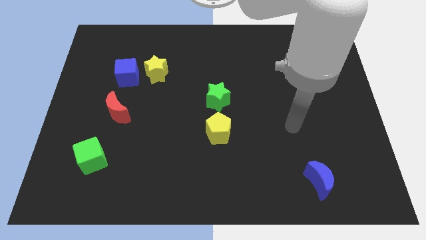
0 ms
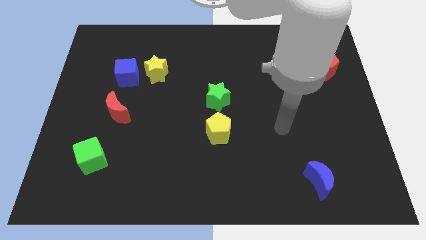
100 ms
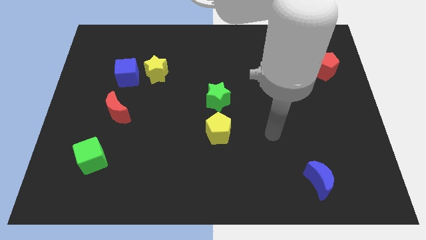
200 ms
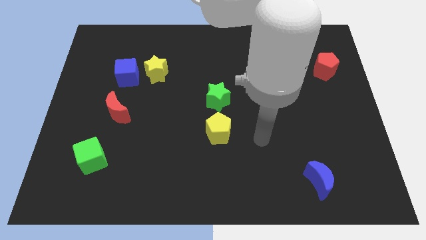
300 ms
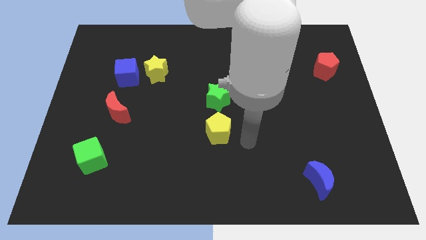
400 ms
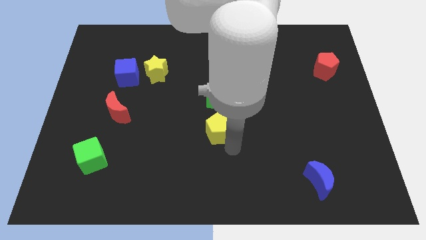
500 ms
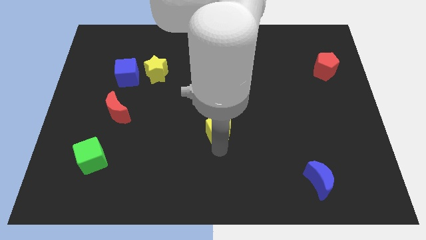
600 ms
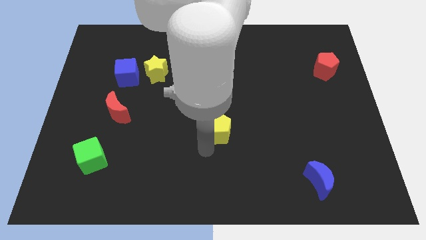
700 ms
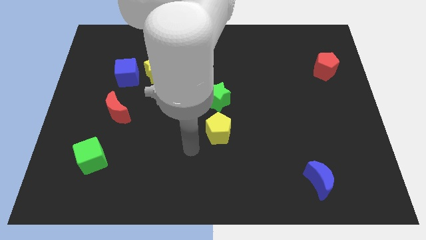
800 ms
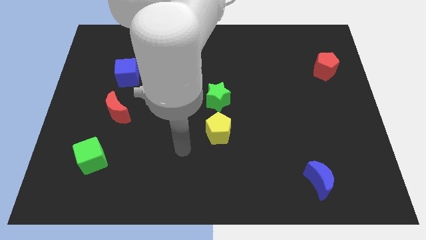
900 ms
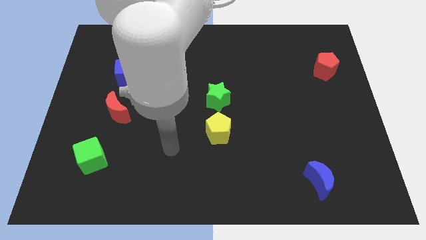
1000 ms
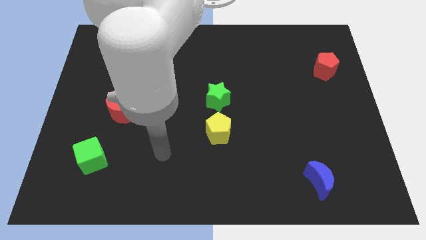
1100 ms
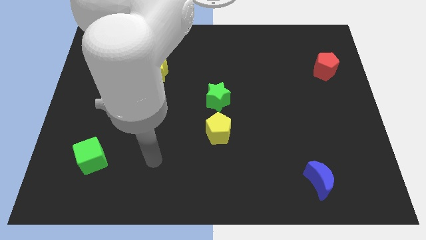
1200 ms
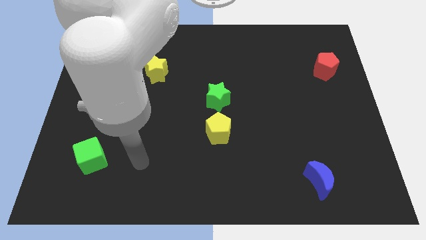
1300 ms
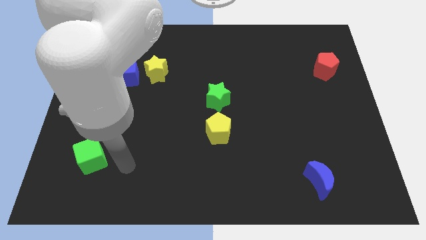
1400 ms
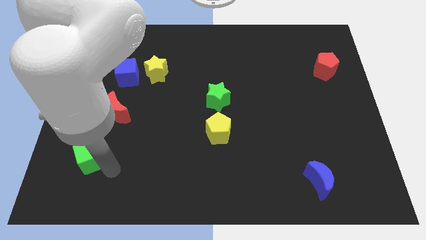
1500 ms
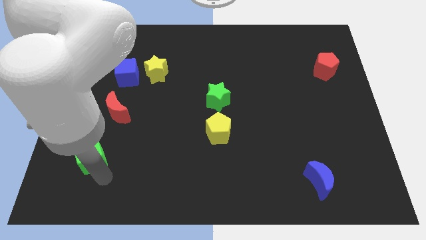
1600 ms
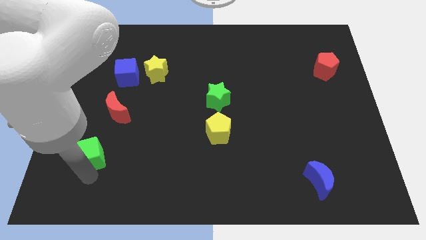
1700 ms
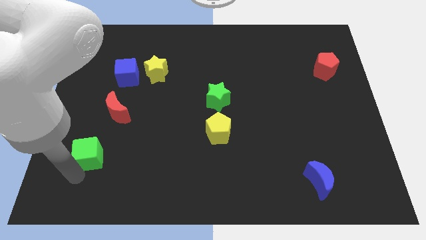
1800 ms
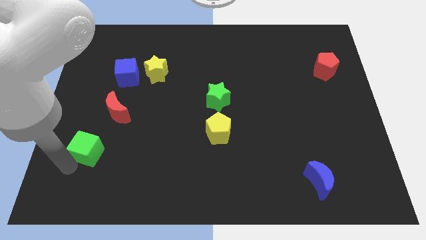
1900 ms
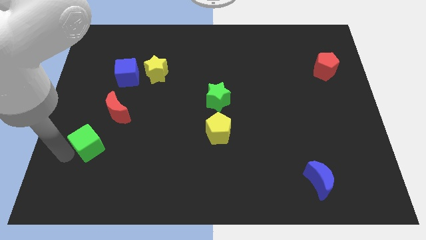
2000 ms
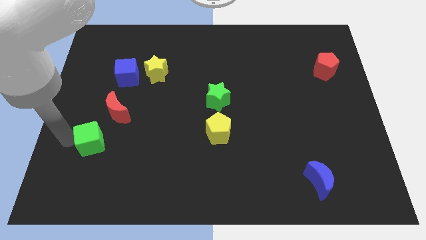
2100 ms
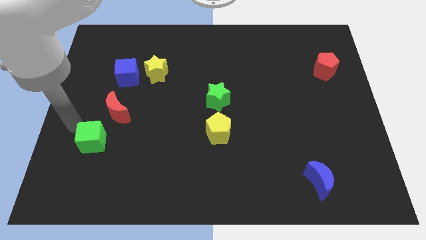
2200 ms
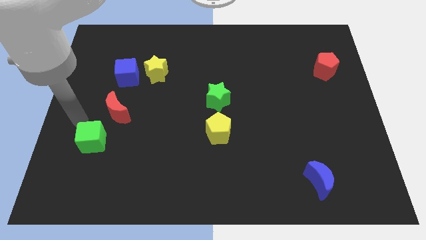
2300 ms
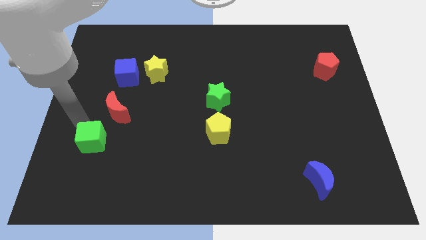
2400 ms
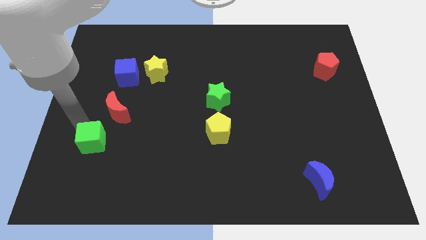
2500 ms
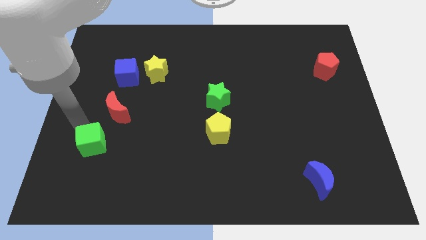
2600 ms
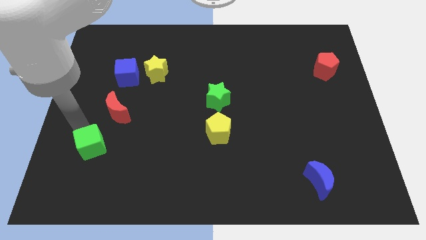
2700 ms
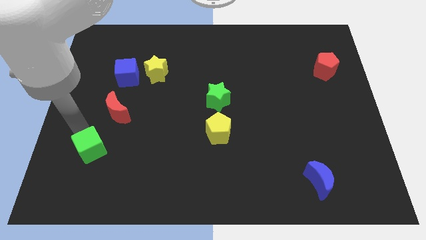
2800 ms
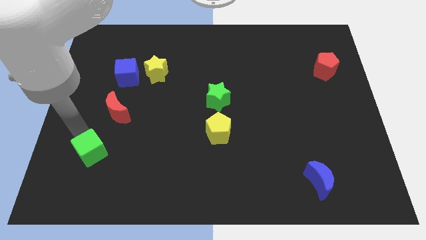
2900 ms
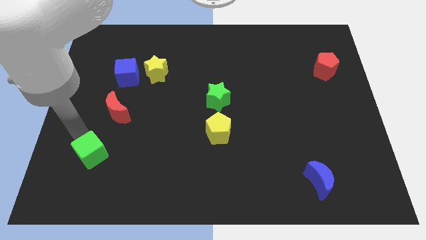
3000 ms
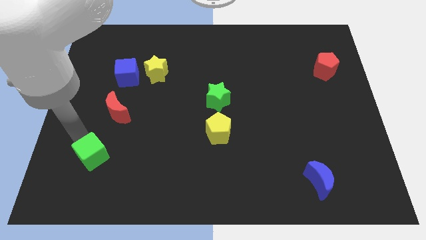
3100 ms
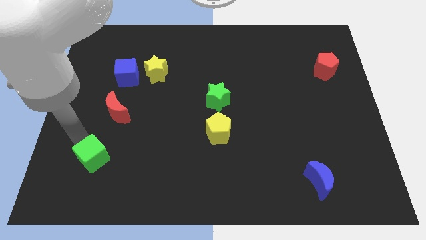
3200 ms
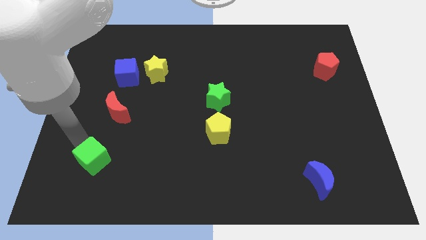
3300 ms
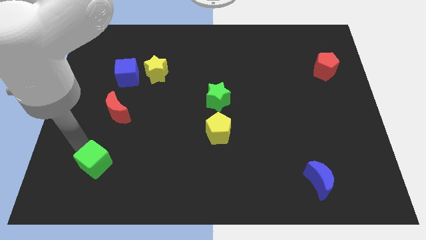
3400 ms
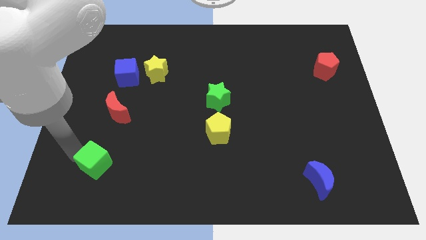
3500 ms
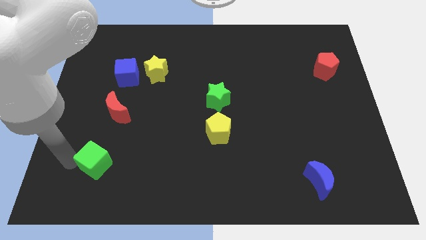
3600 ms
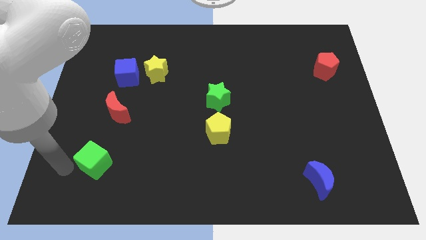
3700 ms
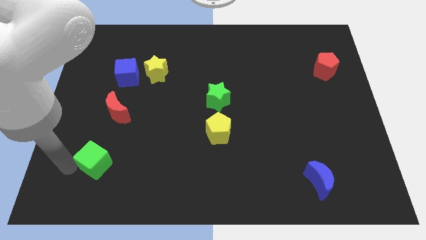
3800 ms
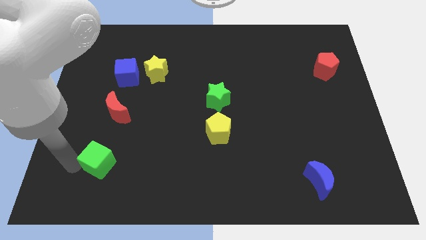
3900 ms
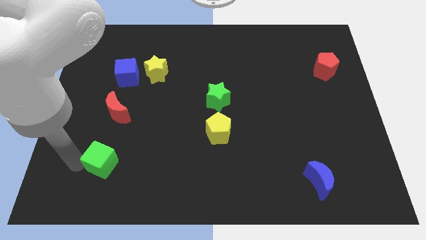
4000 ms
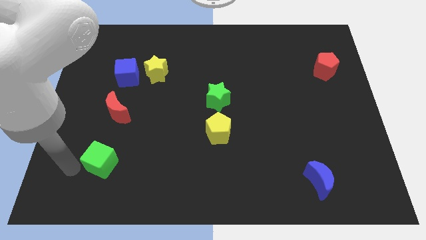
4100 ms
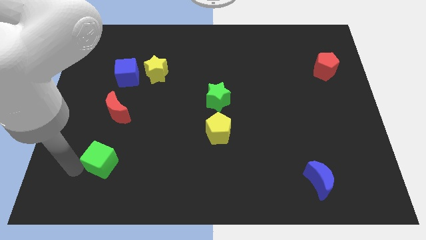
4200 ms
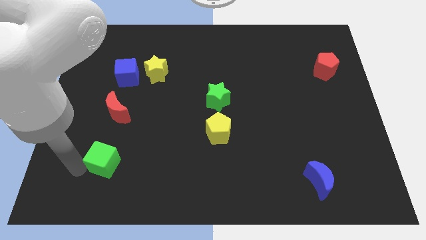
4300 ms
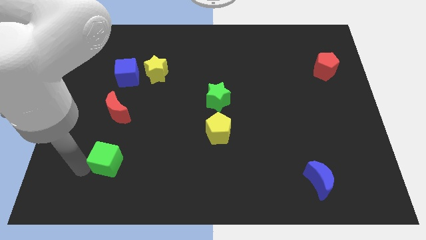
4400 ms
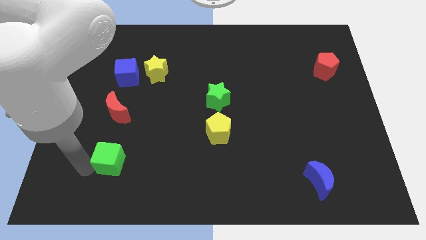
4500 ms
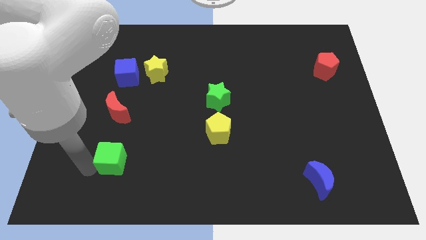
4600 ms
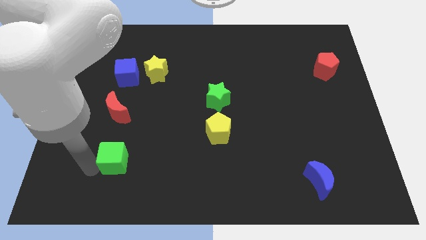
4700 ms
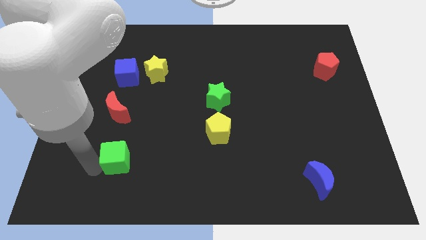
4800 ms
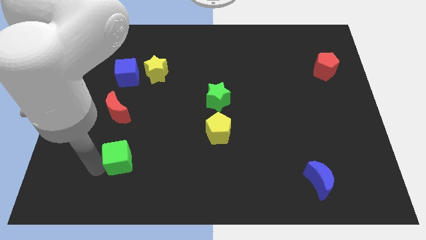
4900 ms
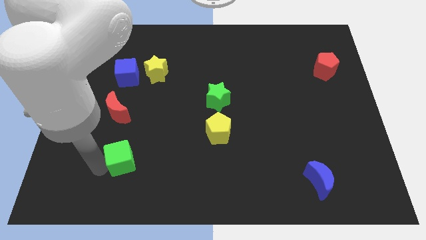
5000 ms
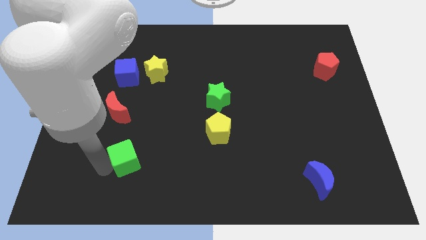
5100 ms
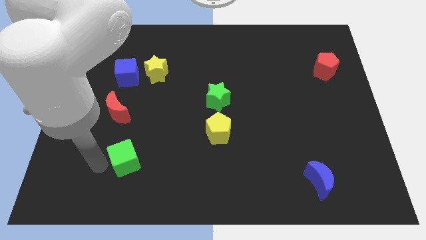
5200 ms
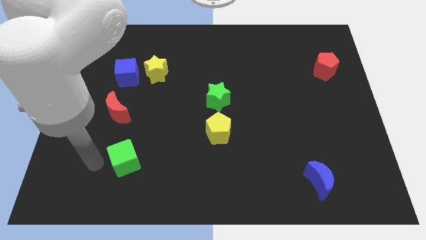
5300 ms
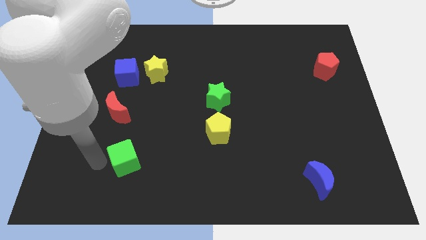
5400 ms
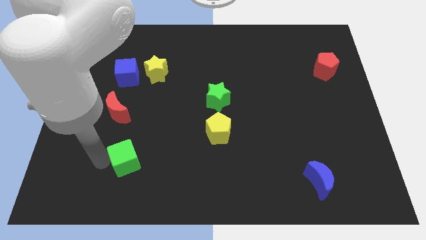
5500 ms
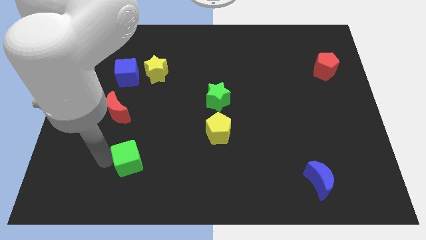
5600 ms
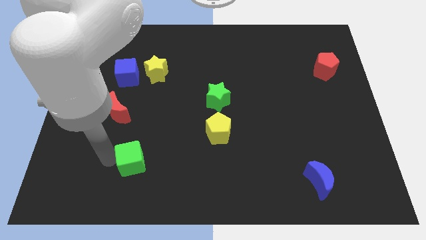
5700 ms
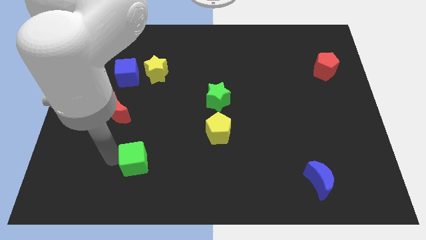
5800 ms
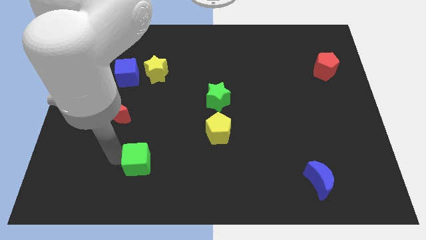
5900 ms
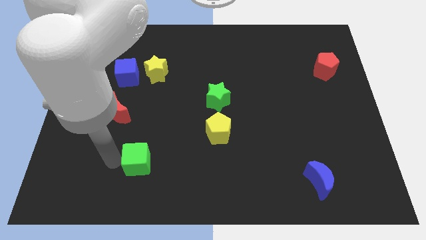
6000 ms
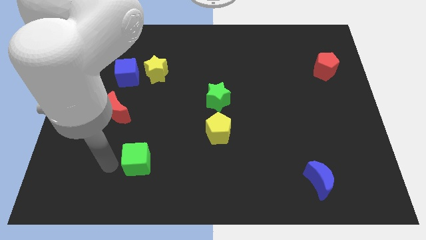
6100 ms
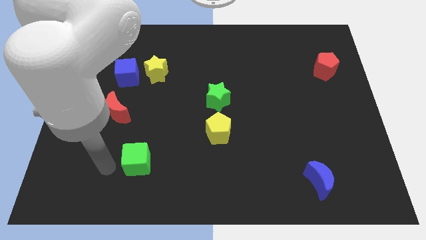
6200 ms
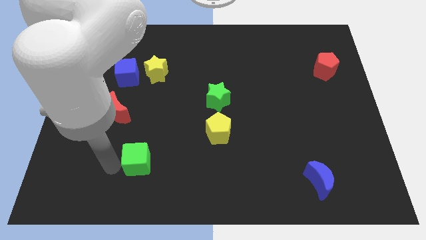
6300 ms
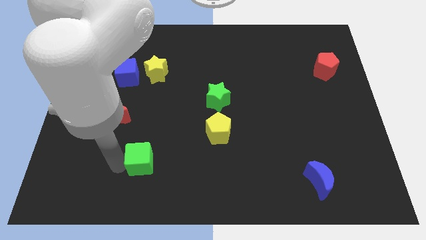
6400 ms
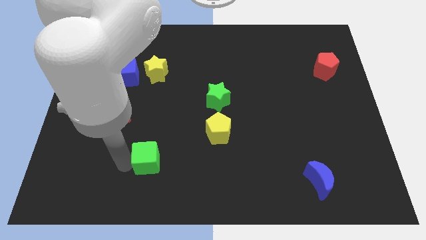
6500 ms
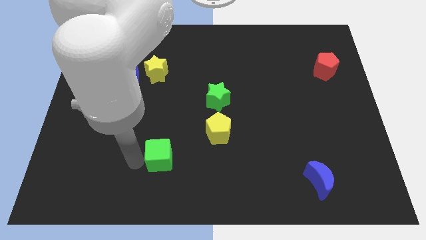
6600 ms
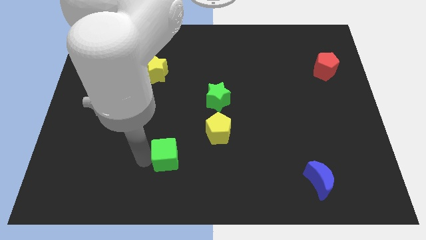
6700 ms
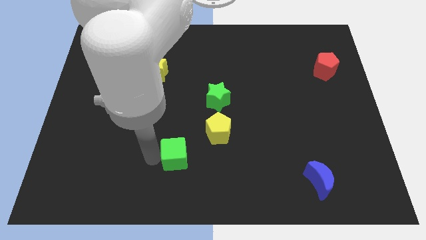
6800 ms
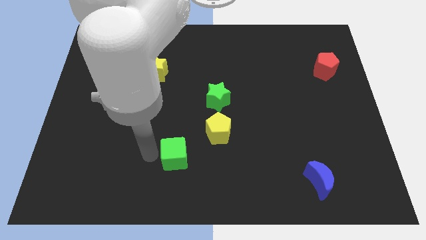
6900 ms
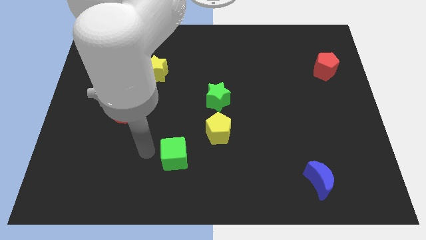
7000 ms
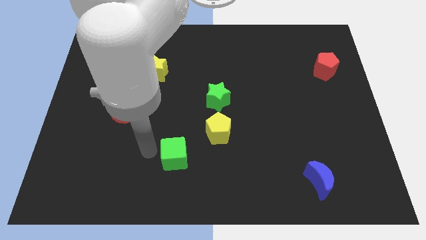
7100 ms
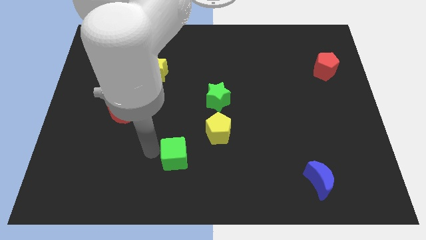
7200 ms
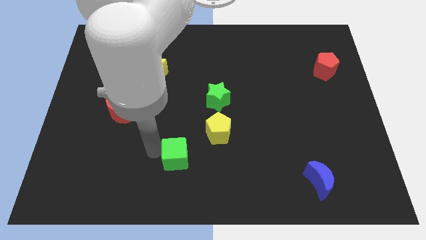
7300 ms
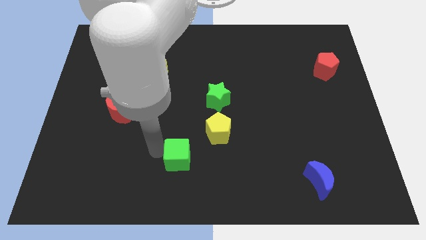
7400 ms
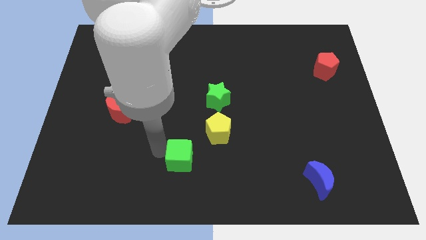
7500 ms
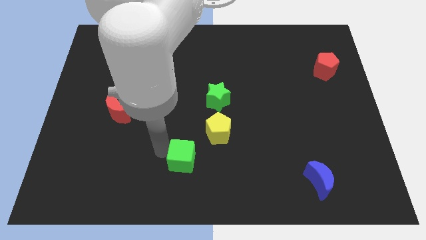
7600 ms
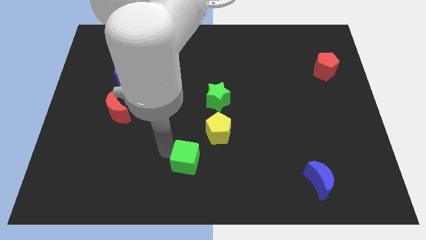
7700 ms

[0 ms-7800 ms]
move the green cube right

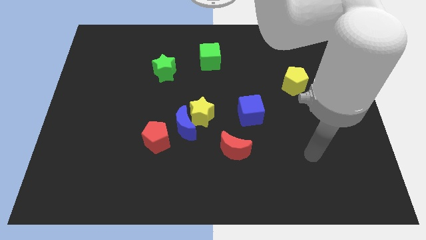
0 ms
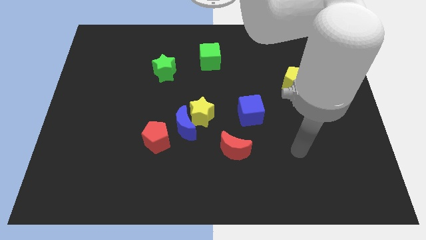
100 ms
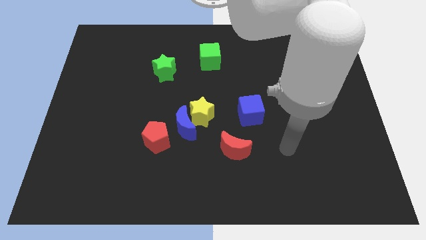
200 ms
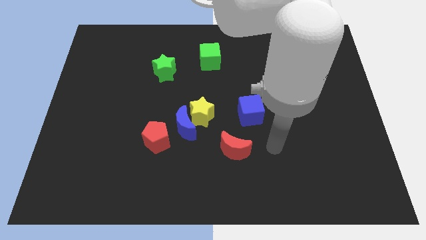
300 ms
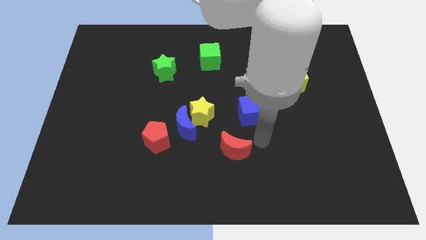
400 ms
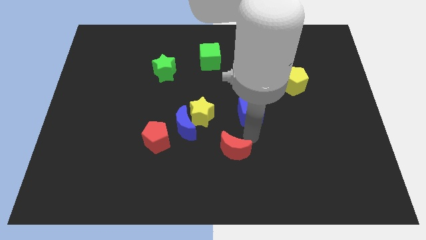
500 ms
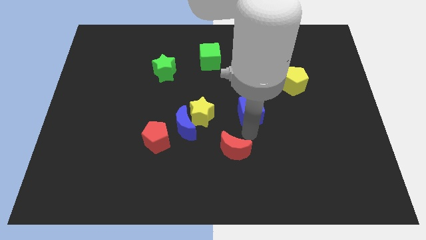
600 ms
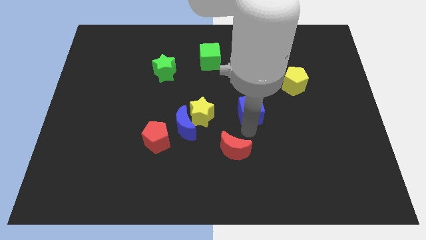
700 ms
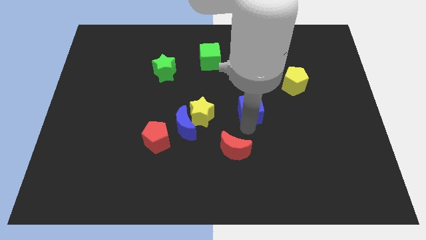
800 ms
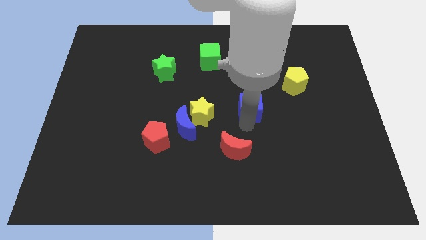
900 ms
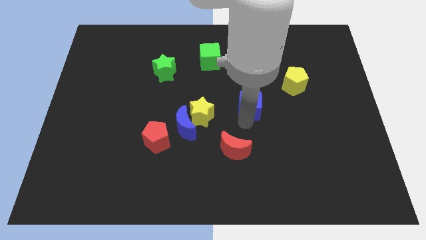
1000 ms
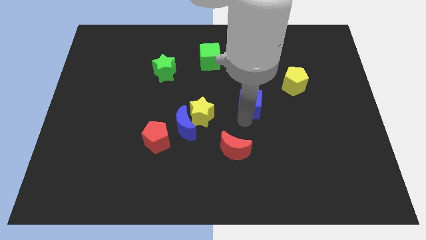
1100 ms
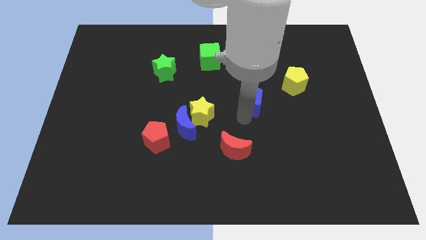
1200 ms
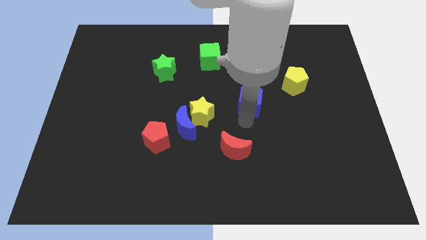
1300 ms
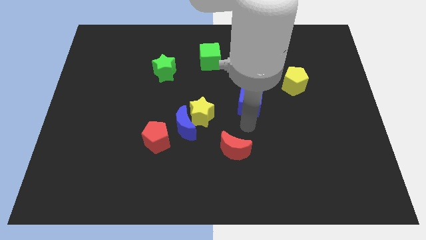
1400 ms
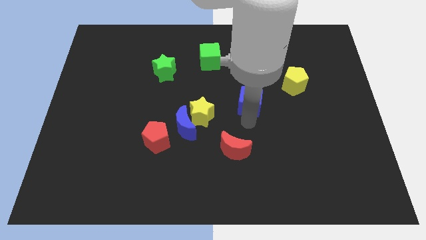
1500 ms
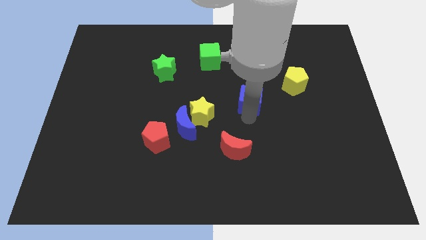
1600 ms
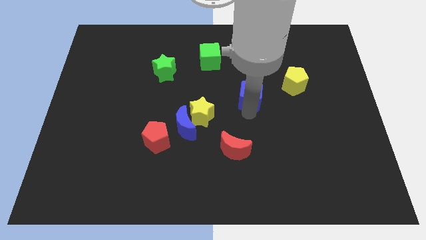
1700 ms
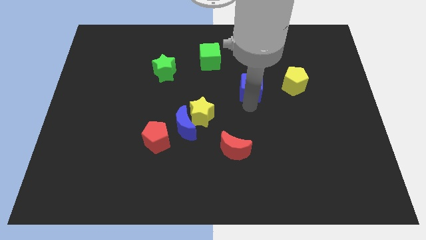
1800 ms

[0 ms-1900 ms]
move the blue cube up a little bit
